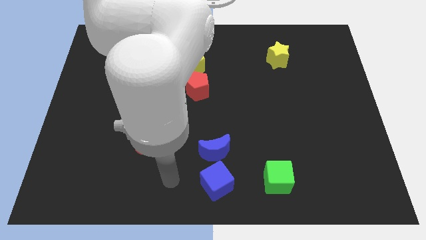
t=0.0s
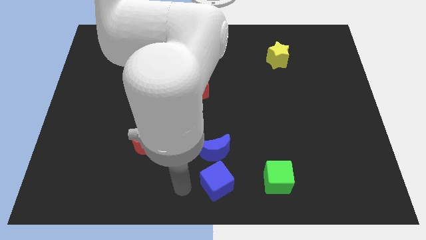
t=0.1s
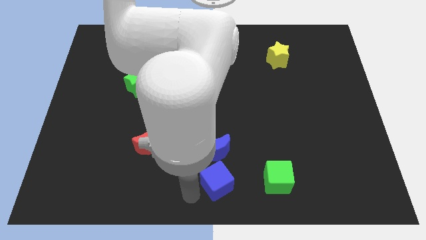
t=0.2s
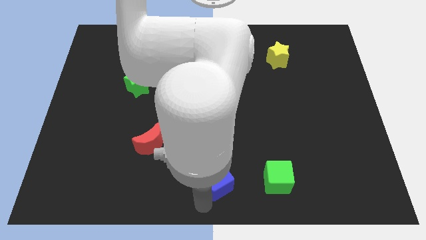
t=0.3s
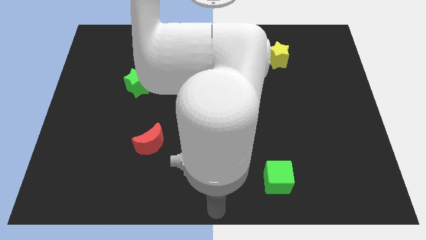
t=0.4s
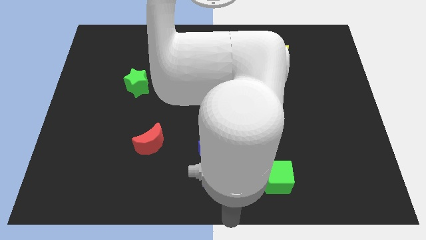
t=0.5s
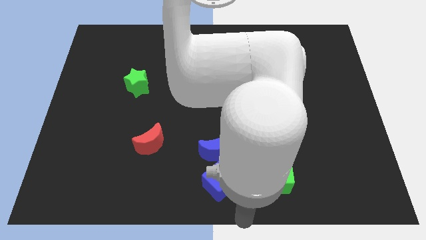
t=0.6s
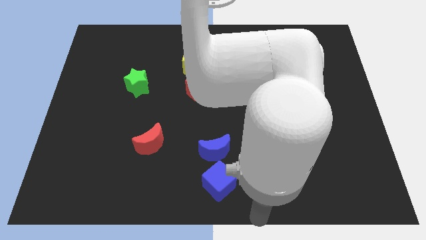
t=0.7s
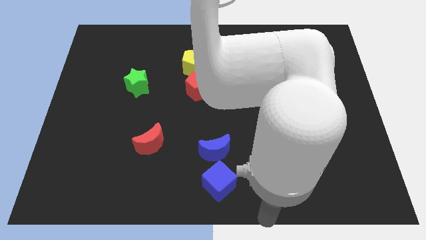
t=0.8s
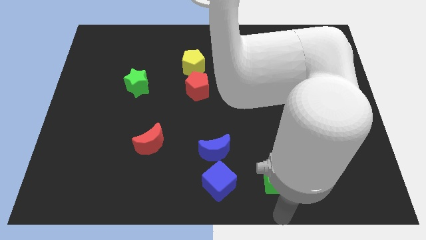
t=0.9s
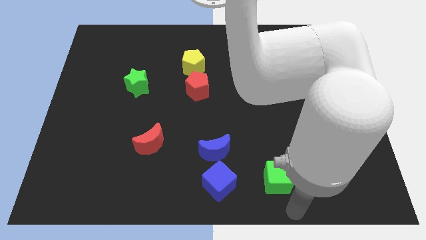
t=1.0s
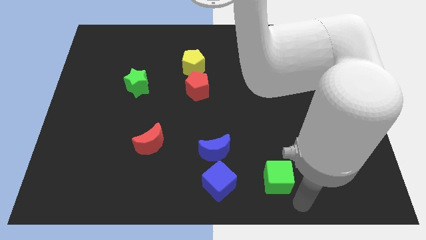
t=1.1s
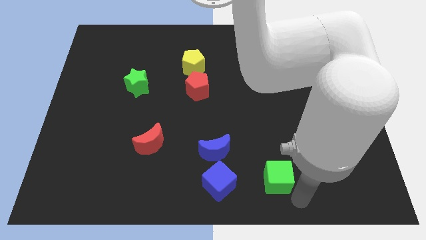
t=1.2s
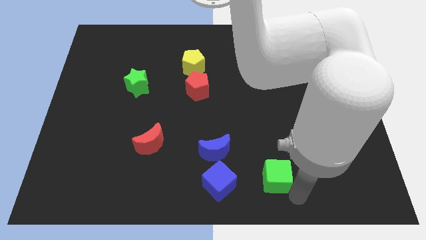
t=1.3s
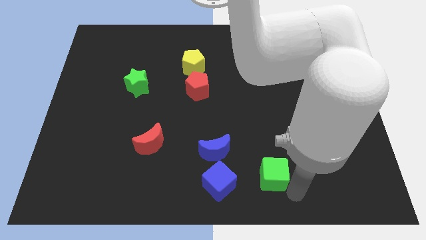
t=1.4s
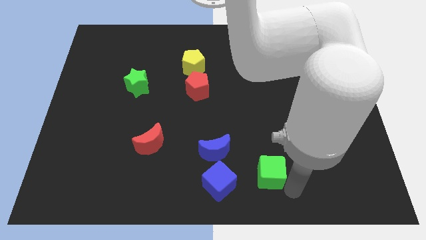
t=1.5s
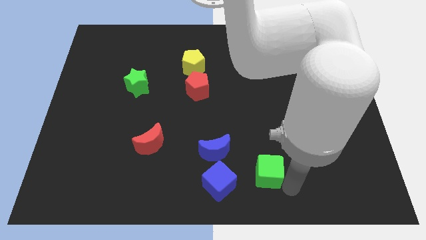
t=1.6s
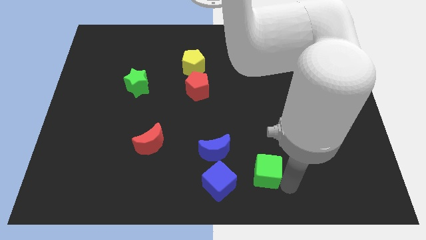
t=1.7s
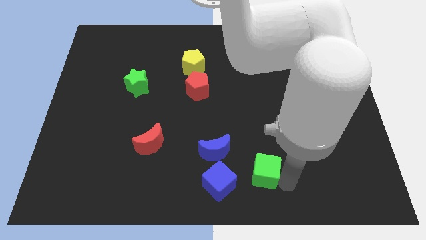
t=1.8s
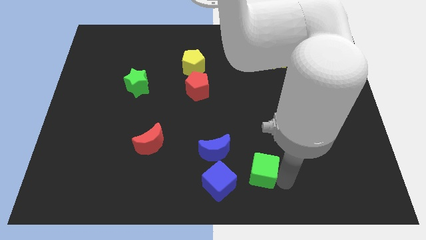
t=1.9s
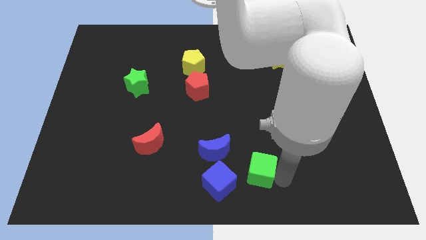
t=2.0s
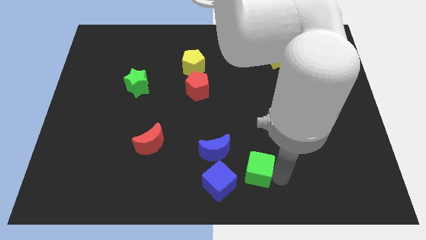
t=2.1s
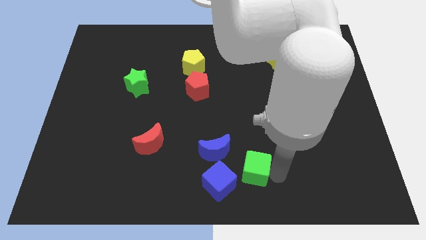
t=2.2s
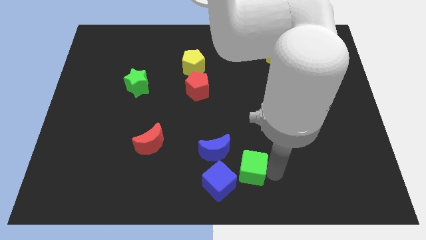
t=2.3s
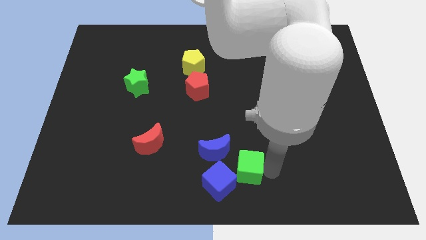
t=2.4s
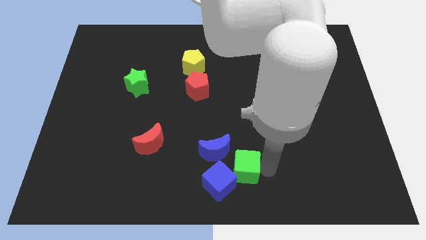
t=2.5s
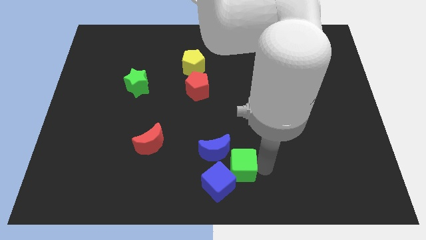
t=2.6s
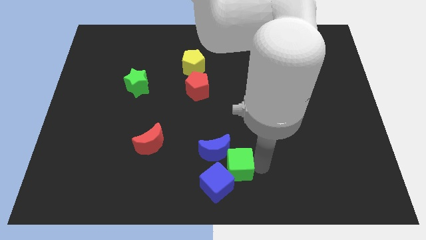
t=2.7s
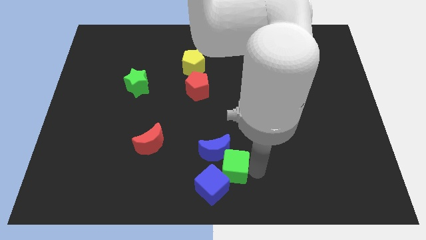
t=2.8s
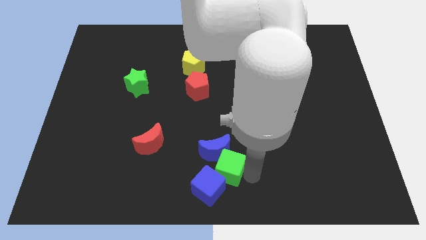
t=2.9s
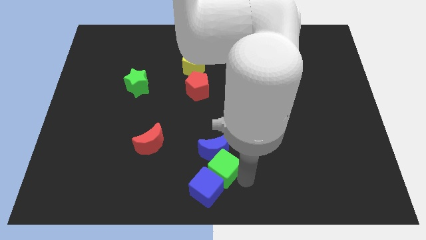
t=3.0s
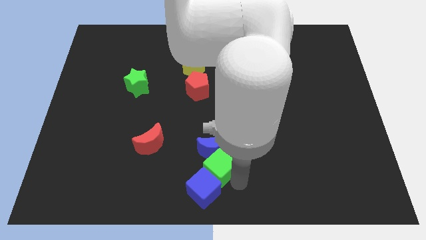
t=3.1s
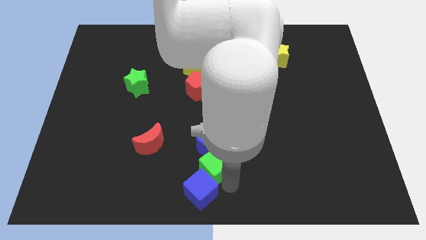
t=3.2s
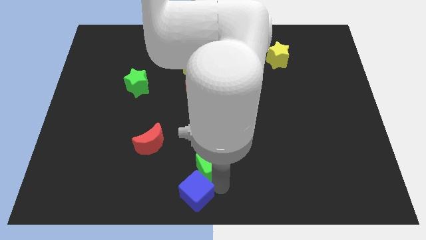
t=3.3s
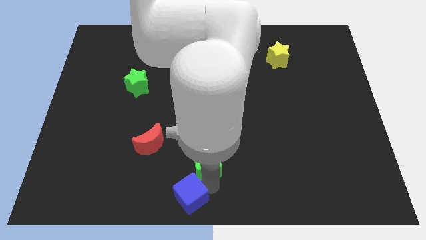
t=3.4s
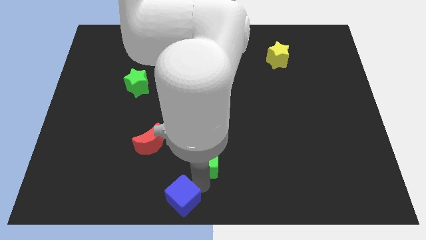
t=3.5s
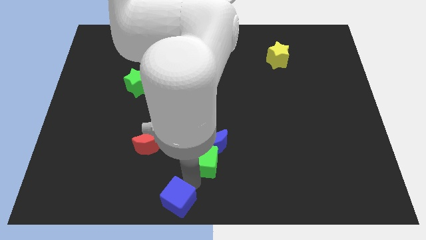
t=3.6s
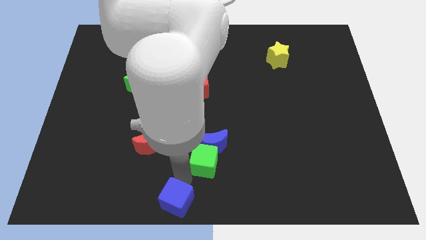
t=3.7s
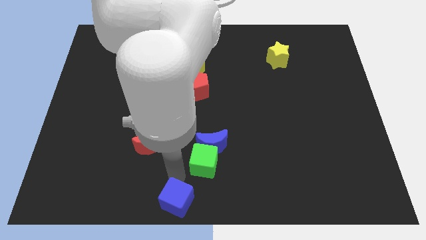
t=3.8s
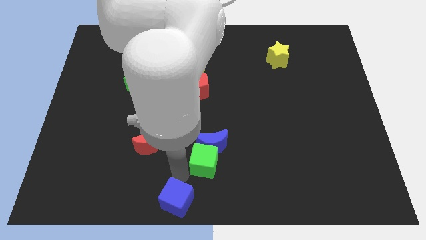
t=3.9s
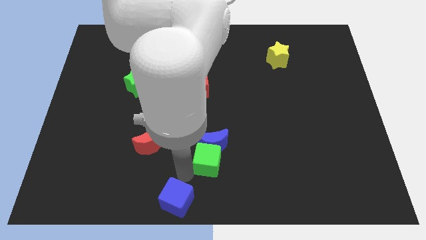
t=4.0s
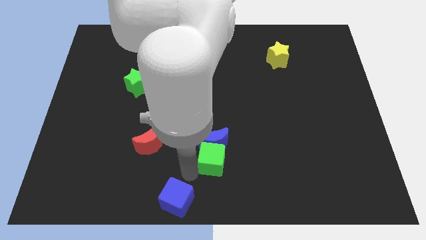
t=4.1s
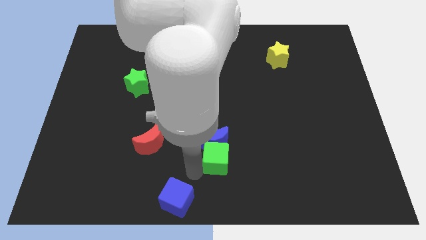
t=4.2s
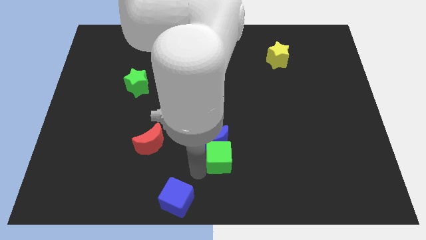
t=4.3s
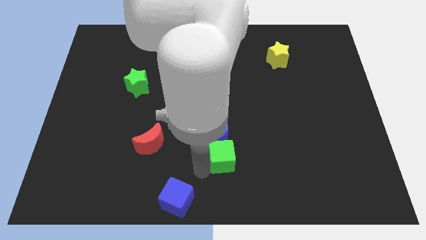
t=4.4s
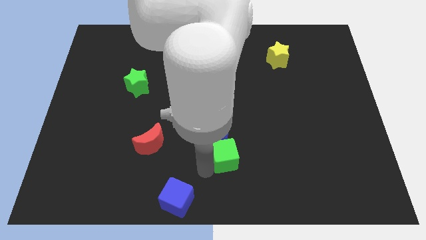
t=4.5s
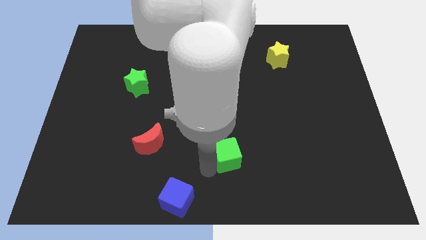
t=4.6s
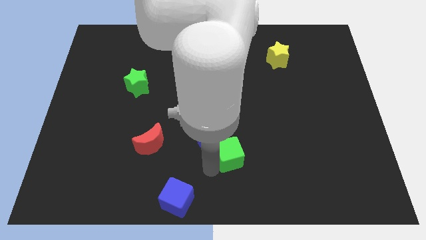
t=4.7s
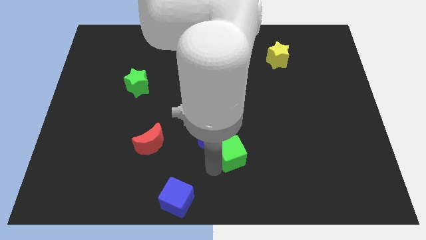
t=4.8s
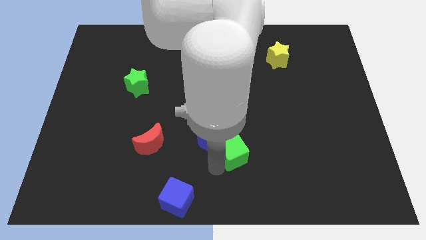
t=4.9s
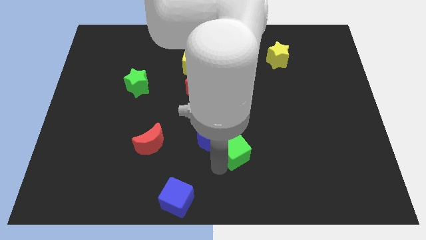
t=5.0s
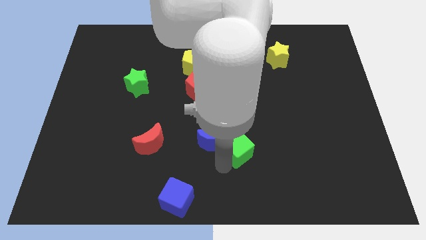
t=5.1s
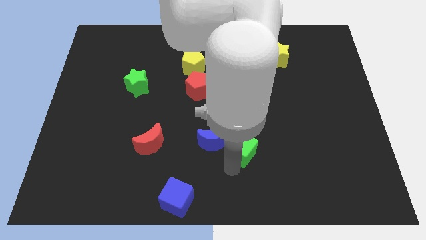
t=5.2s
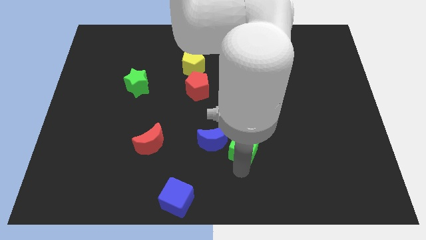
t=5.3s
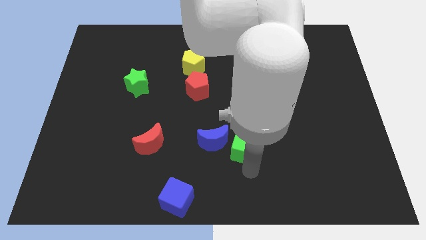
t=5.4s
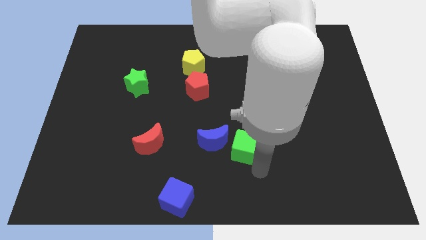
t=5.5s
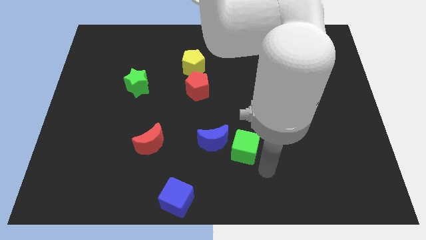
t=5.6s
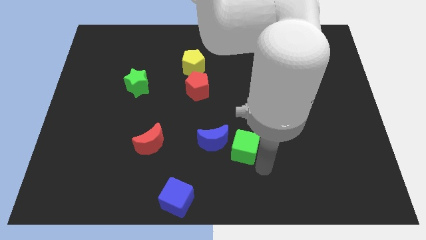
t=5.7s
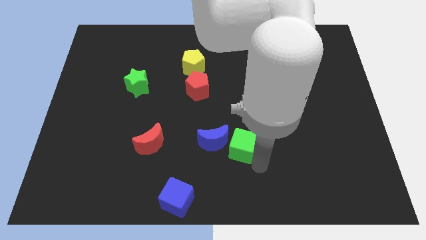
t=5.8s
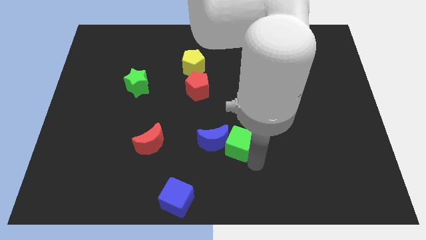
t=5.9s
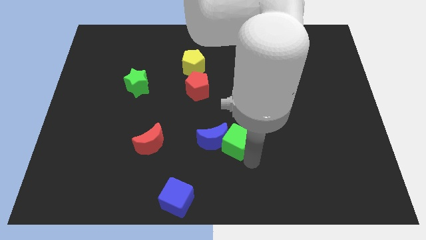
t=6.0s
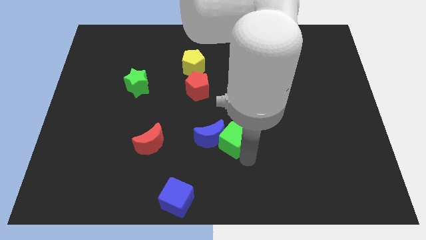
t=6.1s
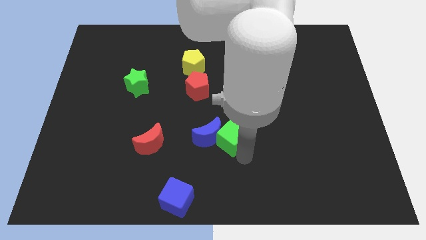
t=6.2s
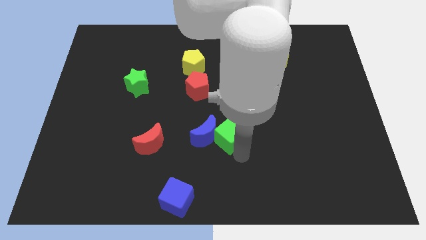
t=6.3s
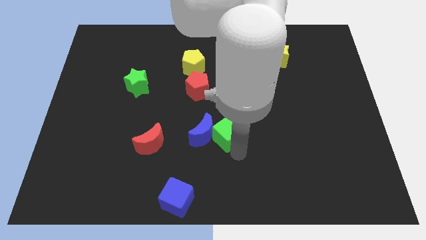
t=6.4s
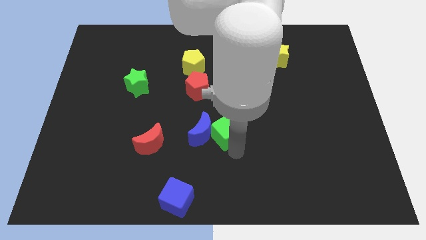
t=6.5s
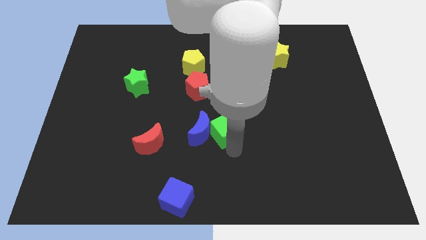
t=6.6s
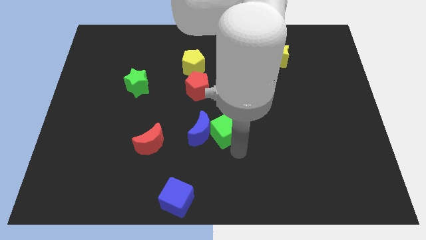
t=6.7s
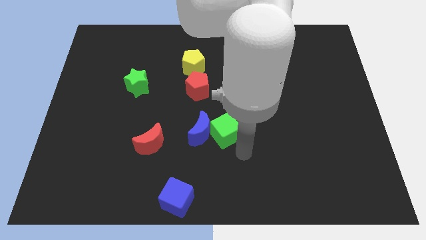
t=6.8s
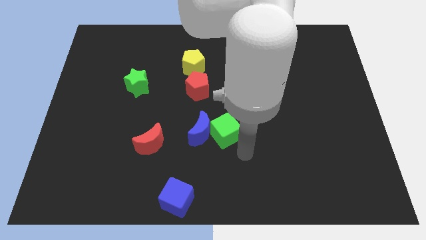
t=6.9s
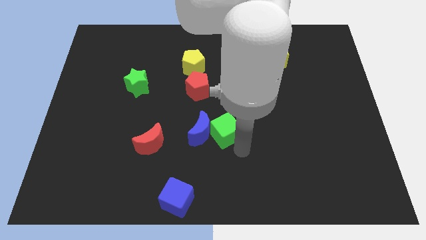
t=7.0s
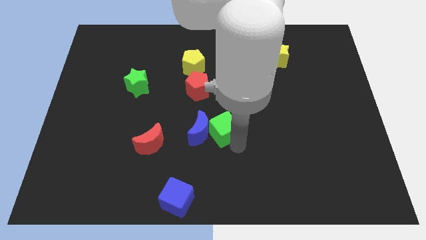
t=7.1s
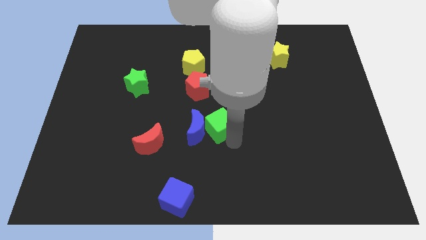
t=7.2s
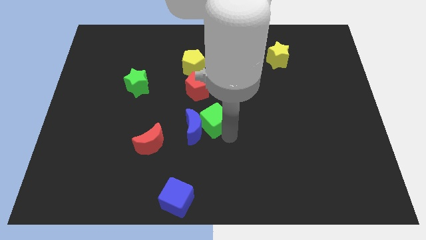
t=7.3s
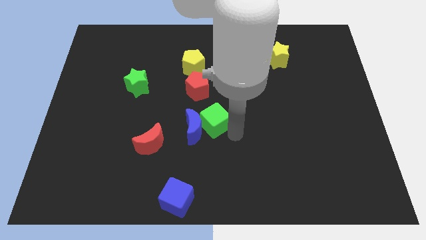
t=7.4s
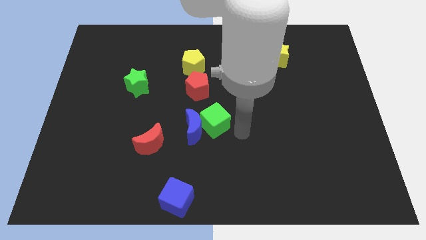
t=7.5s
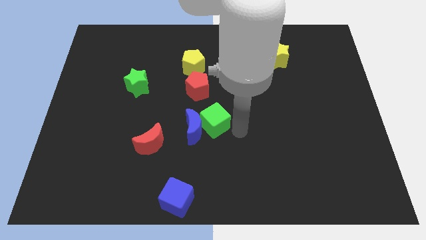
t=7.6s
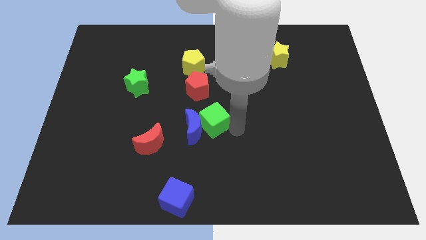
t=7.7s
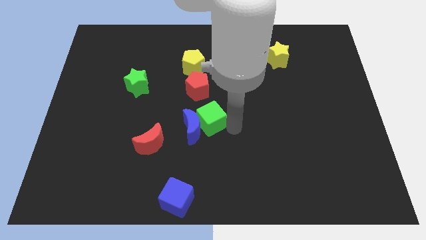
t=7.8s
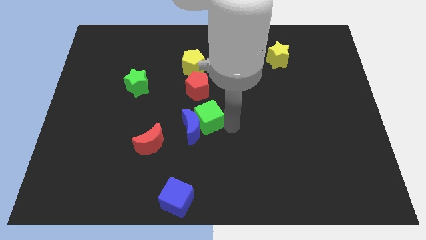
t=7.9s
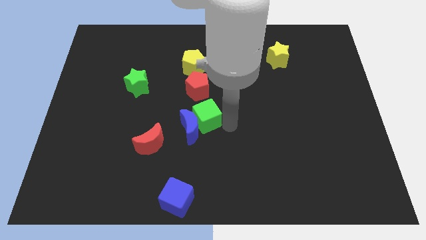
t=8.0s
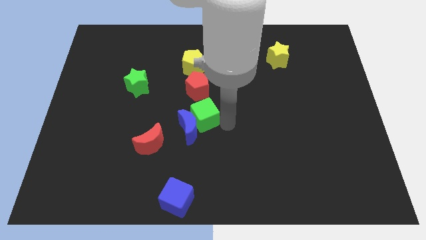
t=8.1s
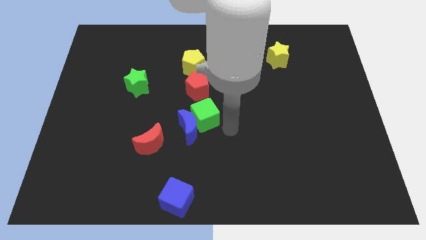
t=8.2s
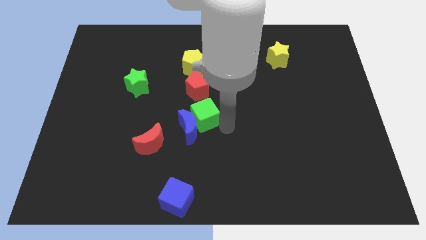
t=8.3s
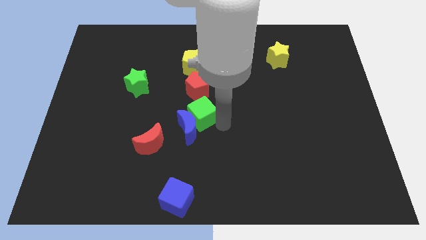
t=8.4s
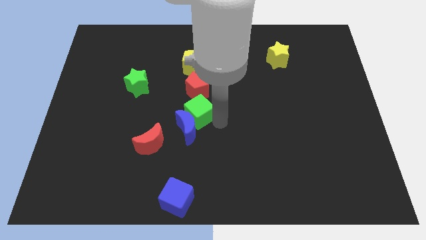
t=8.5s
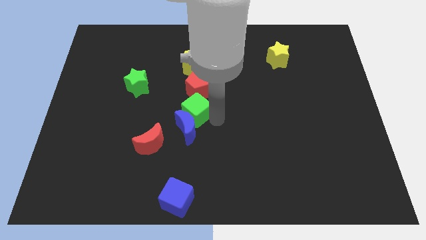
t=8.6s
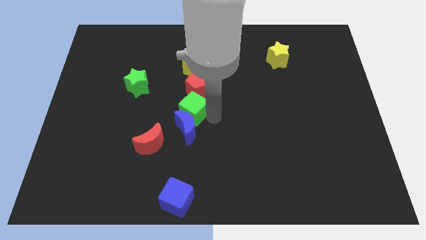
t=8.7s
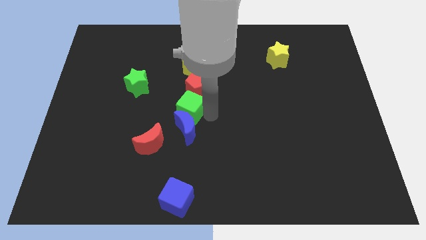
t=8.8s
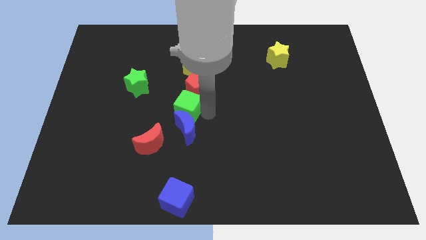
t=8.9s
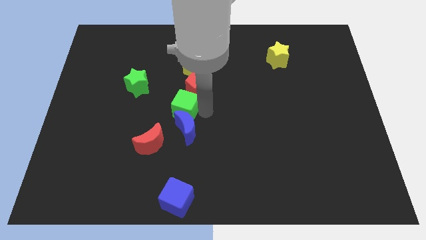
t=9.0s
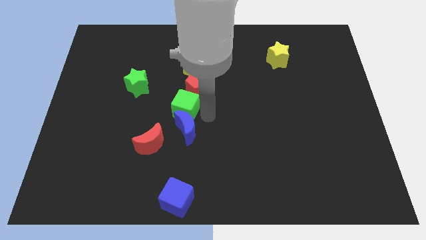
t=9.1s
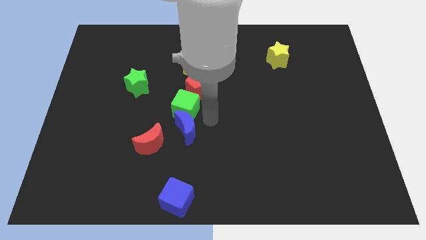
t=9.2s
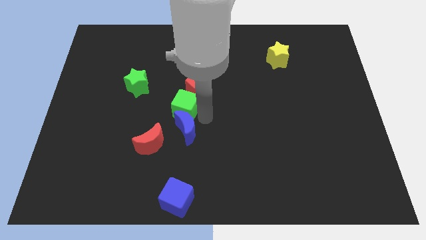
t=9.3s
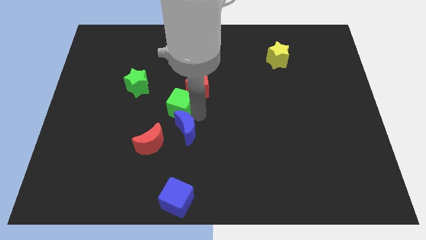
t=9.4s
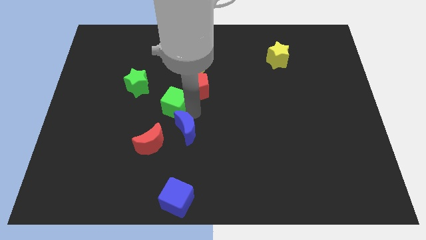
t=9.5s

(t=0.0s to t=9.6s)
push the green cube just left of the red pentagon
